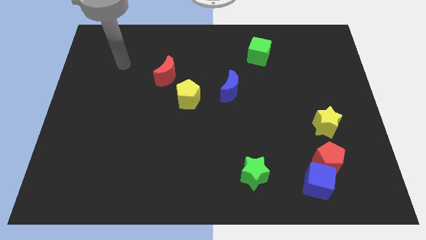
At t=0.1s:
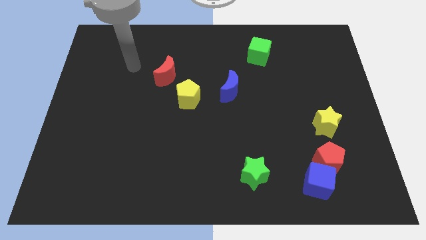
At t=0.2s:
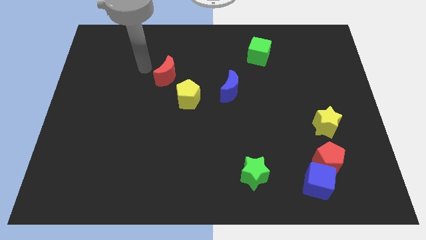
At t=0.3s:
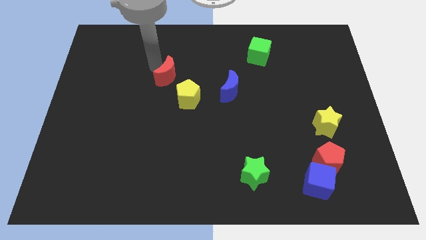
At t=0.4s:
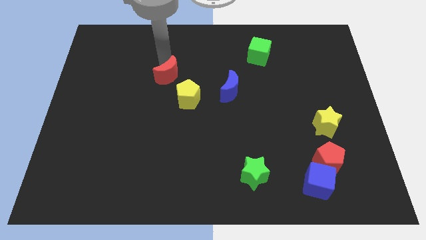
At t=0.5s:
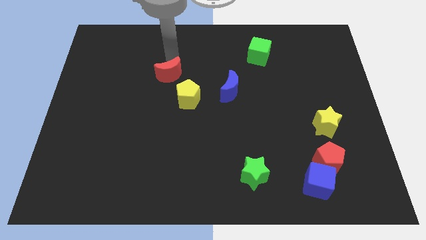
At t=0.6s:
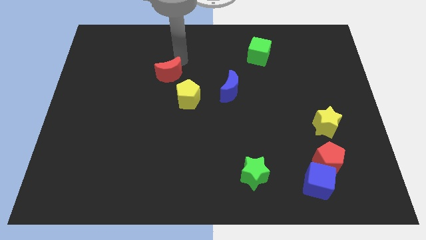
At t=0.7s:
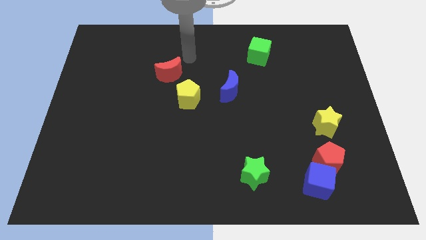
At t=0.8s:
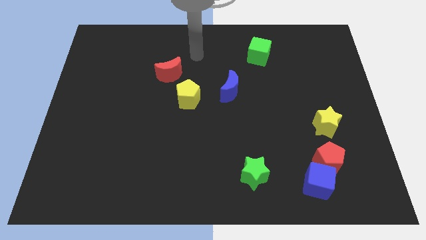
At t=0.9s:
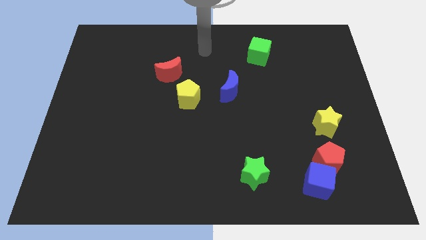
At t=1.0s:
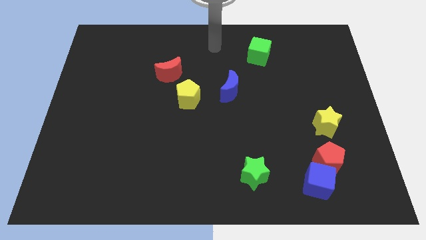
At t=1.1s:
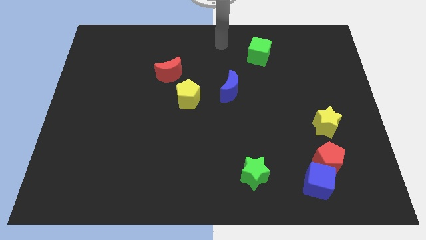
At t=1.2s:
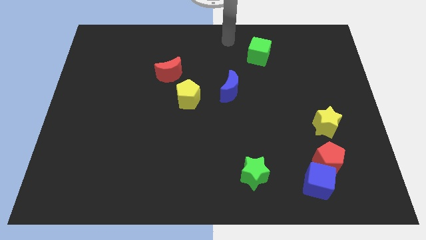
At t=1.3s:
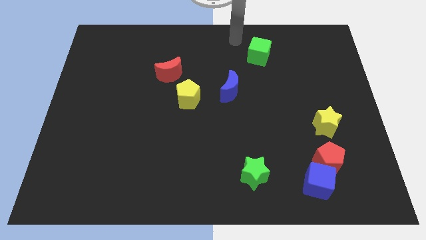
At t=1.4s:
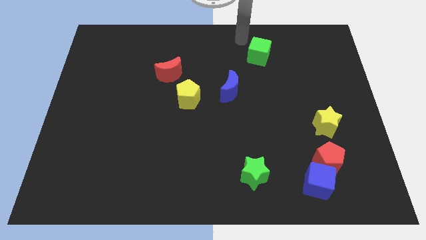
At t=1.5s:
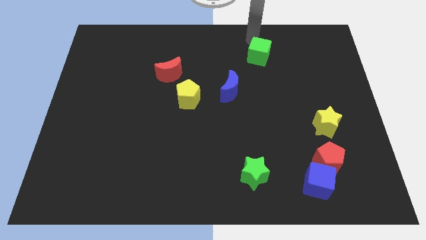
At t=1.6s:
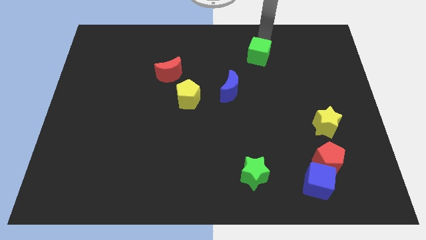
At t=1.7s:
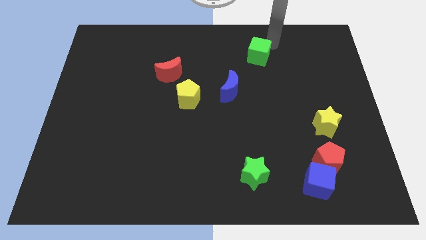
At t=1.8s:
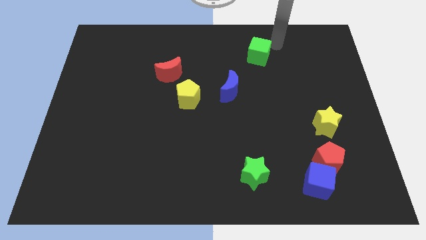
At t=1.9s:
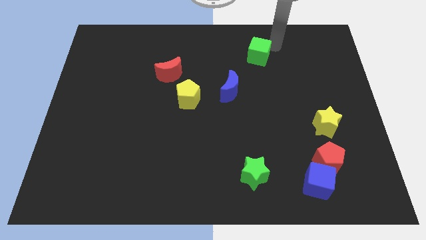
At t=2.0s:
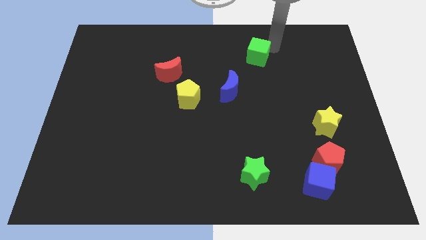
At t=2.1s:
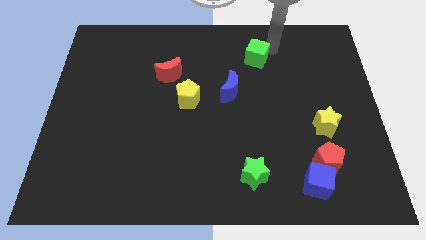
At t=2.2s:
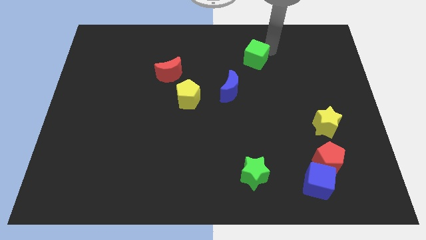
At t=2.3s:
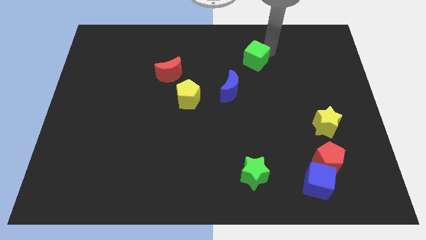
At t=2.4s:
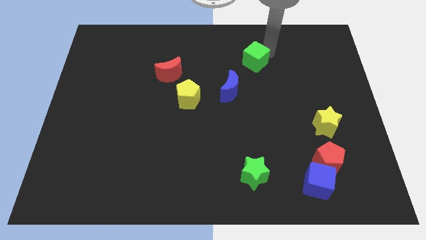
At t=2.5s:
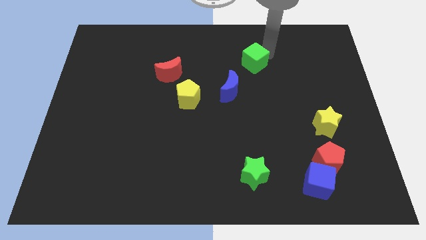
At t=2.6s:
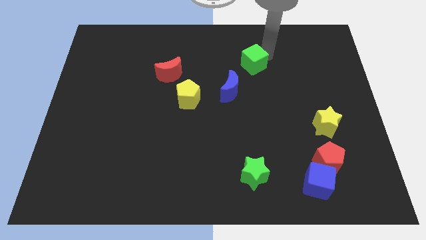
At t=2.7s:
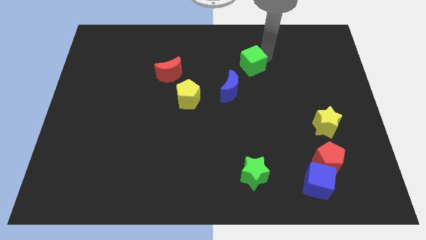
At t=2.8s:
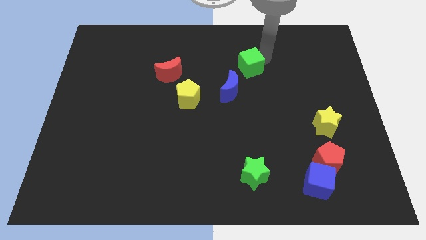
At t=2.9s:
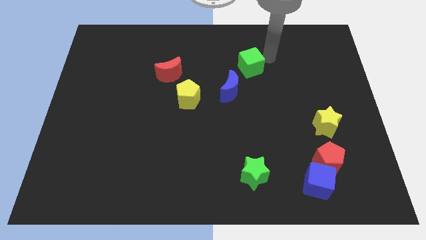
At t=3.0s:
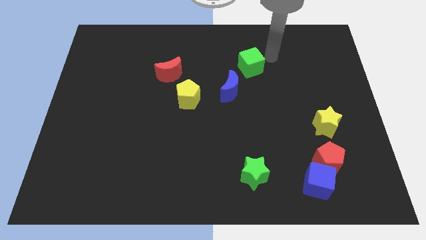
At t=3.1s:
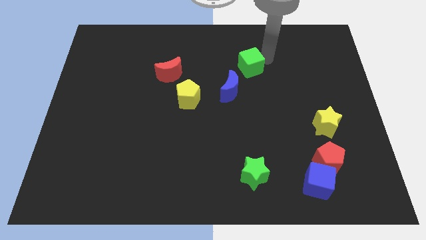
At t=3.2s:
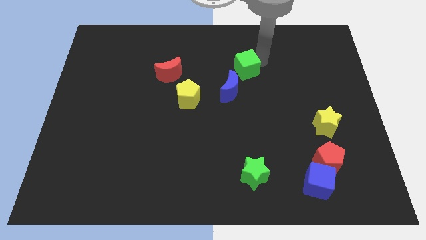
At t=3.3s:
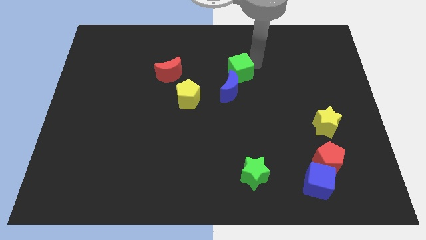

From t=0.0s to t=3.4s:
push the green cube a bit down and to the left

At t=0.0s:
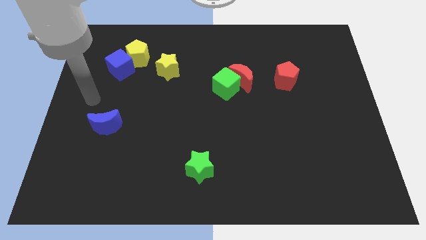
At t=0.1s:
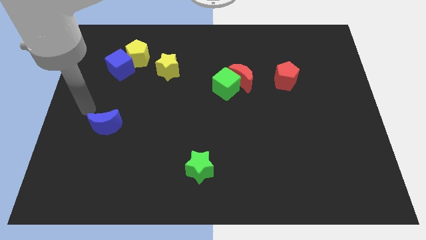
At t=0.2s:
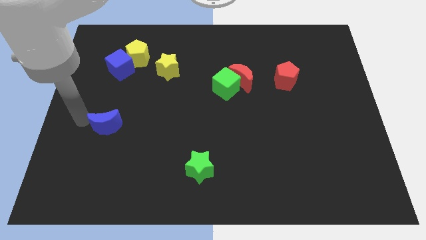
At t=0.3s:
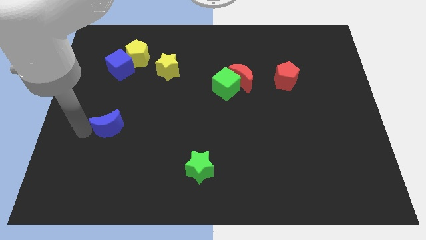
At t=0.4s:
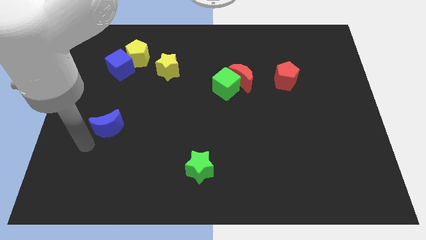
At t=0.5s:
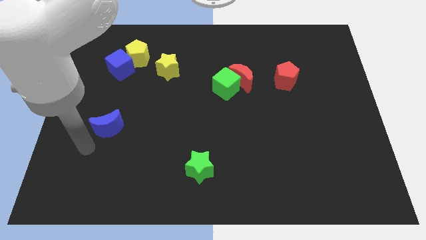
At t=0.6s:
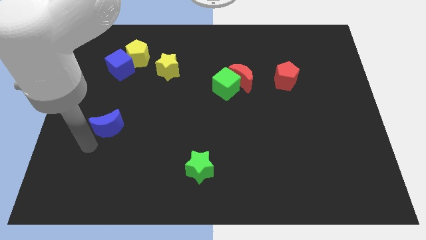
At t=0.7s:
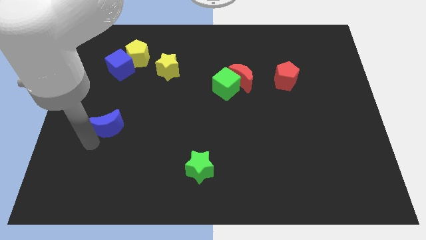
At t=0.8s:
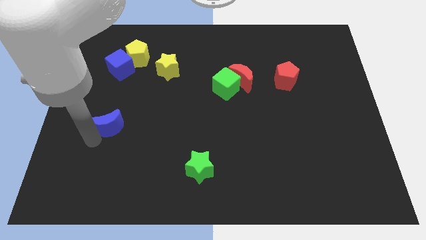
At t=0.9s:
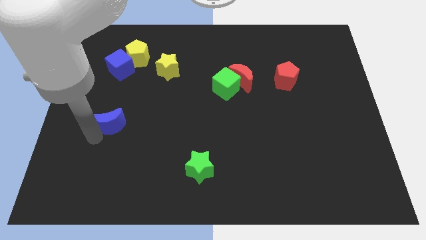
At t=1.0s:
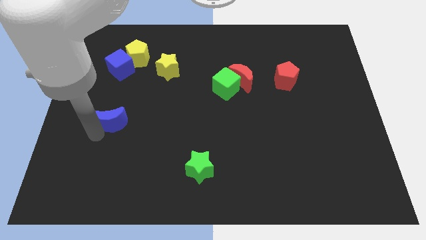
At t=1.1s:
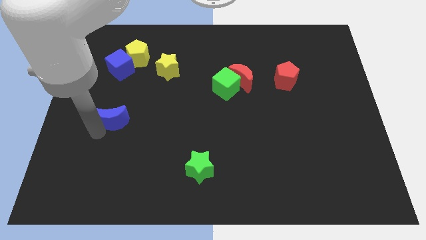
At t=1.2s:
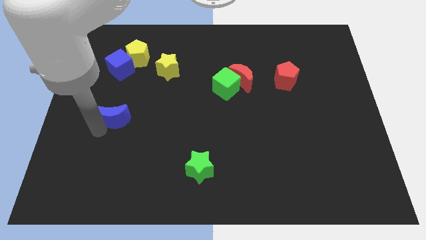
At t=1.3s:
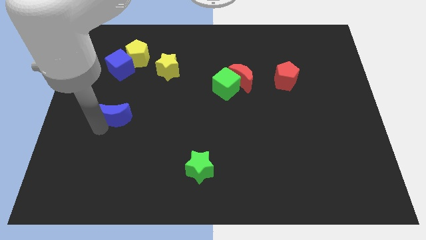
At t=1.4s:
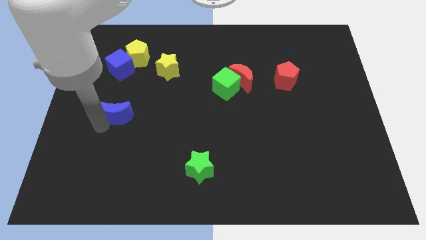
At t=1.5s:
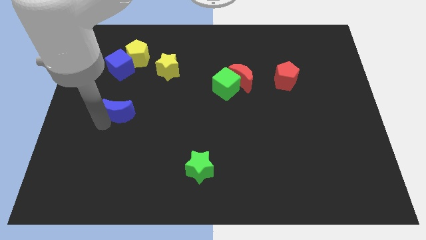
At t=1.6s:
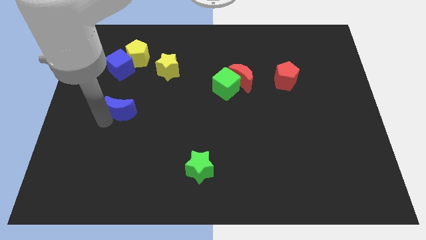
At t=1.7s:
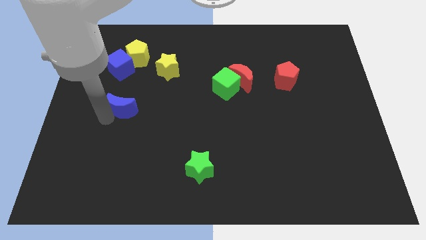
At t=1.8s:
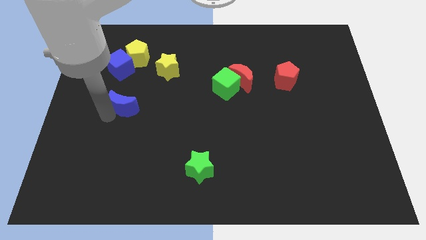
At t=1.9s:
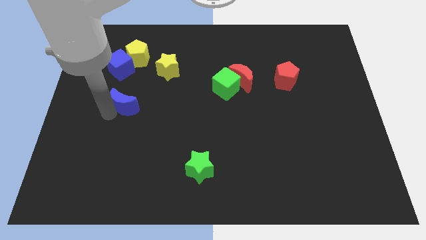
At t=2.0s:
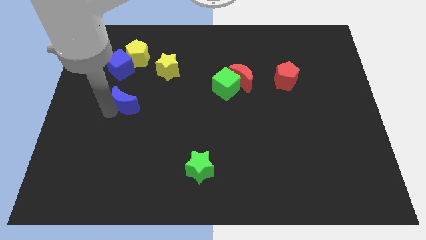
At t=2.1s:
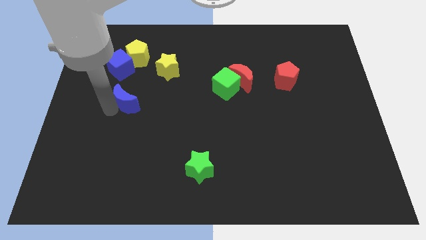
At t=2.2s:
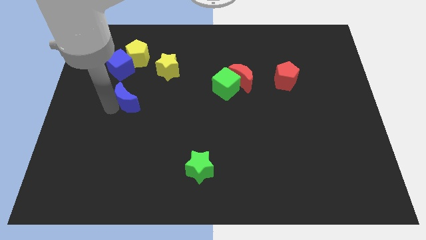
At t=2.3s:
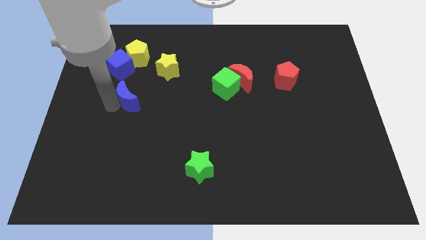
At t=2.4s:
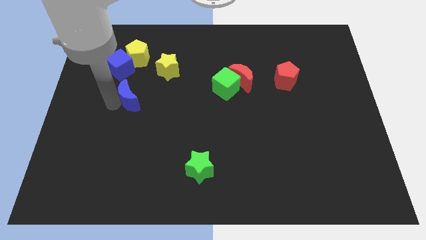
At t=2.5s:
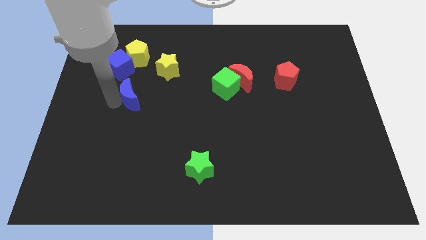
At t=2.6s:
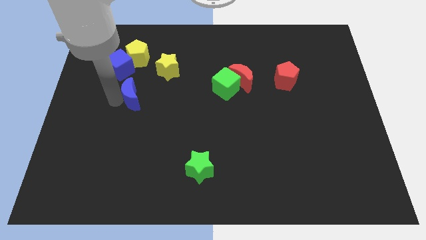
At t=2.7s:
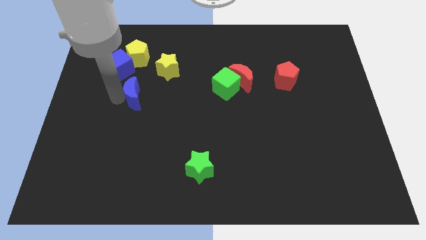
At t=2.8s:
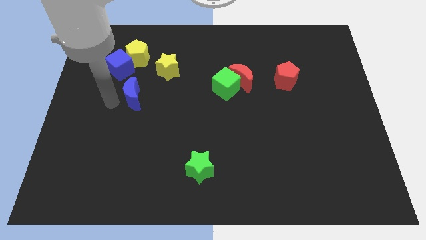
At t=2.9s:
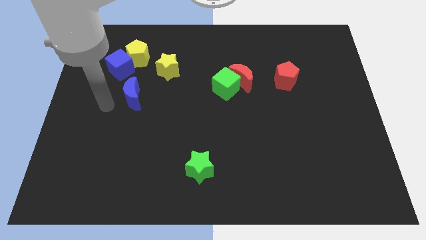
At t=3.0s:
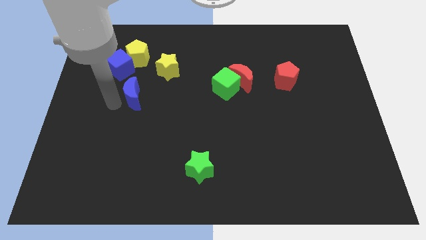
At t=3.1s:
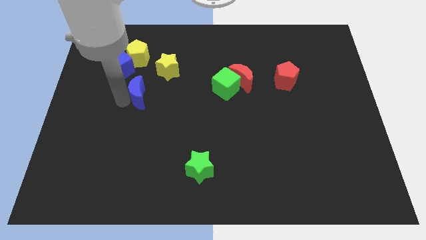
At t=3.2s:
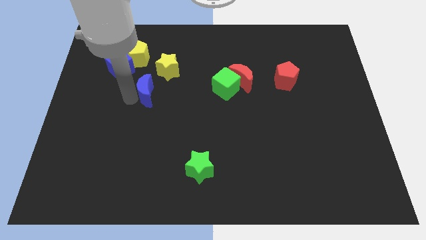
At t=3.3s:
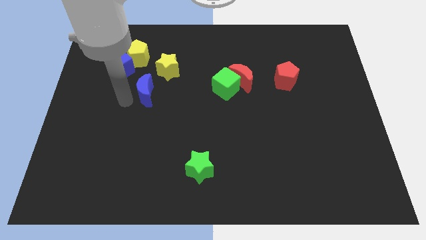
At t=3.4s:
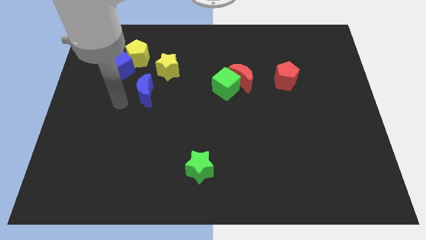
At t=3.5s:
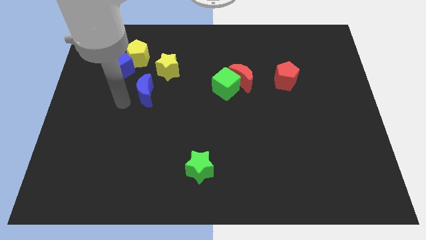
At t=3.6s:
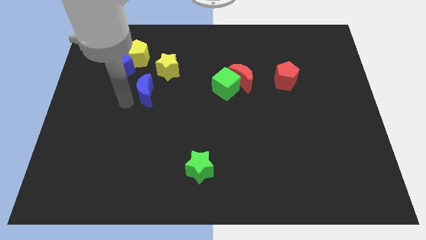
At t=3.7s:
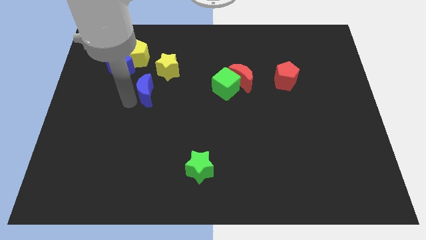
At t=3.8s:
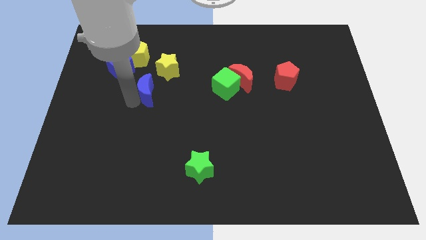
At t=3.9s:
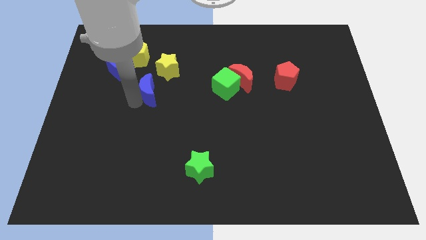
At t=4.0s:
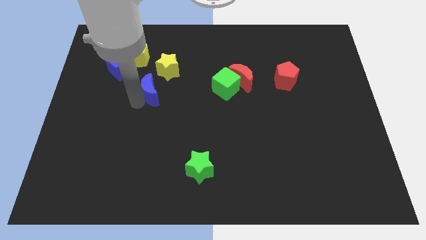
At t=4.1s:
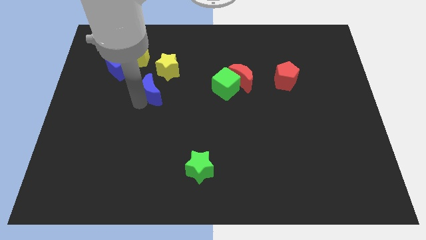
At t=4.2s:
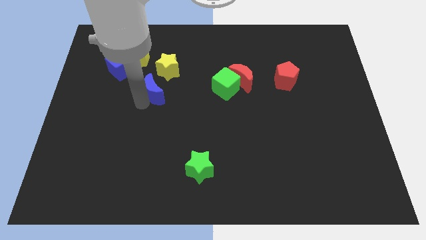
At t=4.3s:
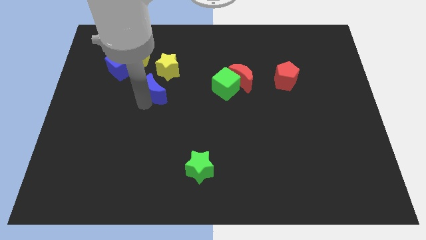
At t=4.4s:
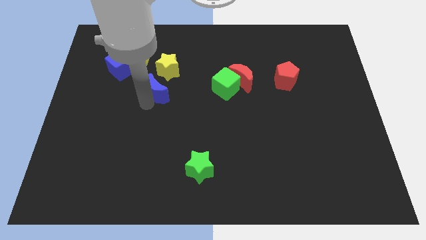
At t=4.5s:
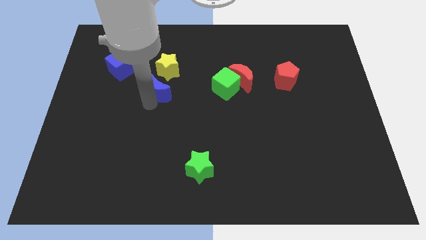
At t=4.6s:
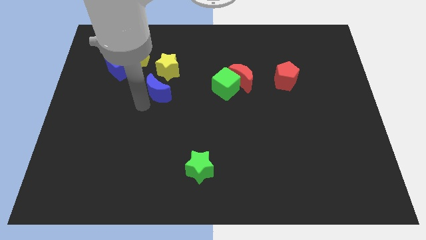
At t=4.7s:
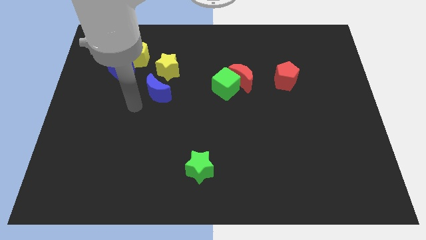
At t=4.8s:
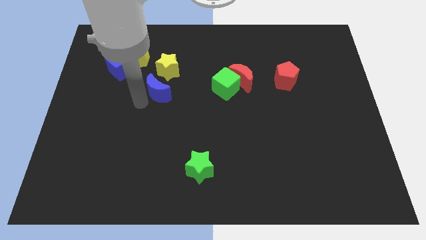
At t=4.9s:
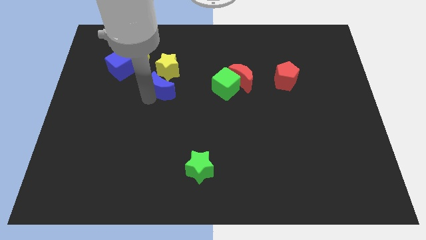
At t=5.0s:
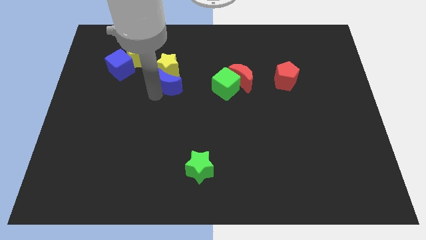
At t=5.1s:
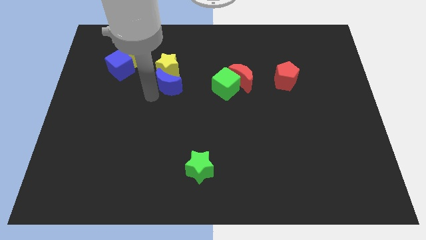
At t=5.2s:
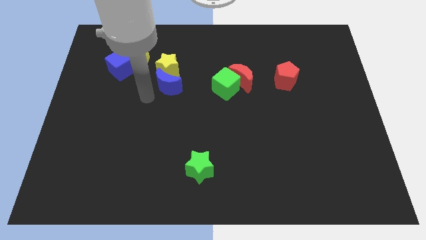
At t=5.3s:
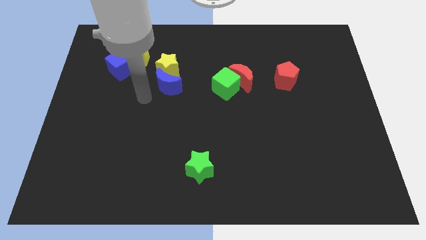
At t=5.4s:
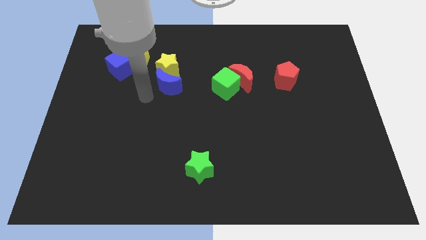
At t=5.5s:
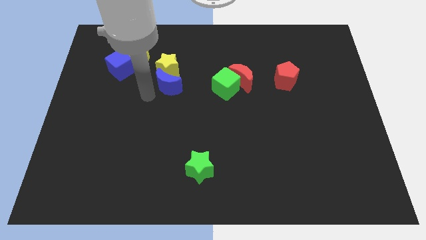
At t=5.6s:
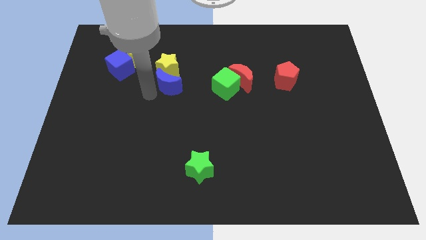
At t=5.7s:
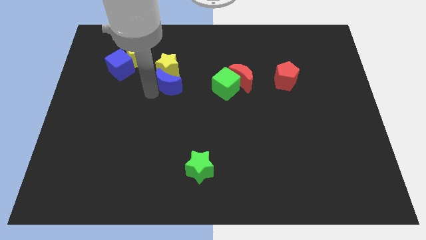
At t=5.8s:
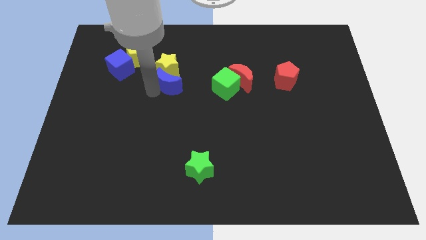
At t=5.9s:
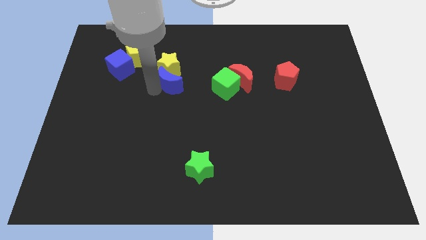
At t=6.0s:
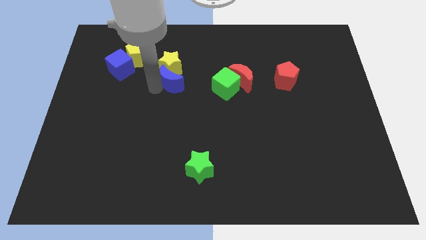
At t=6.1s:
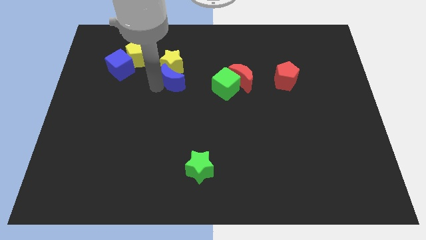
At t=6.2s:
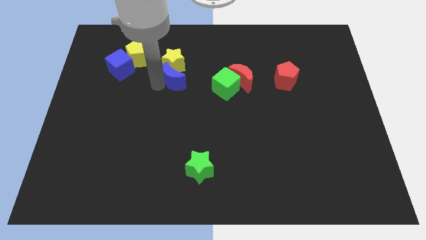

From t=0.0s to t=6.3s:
move the blue moon upwards and right diagonally
